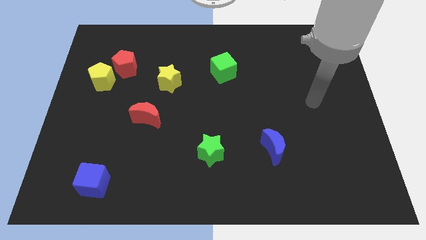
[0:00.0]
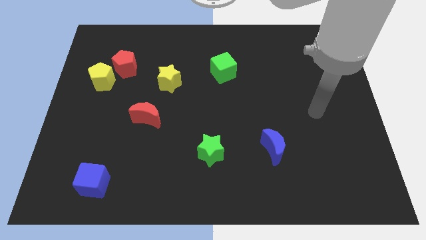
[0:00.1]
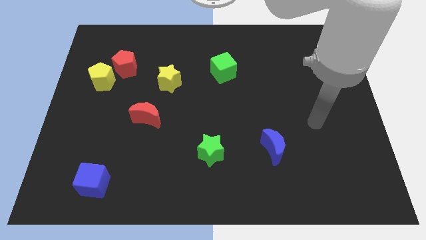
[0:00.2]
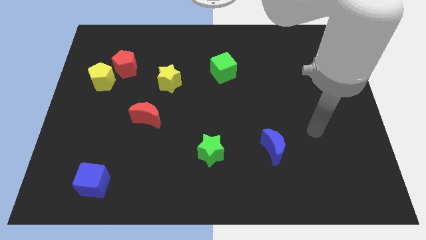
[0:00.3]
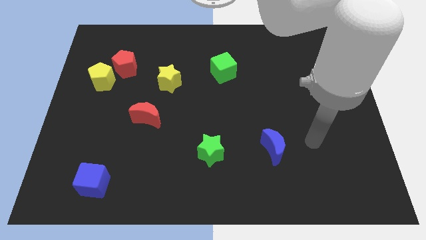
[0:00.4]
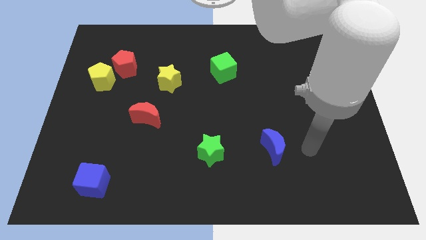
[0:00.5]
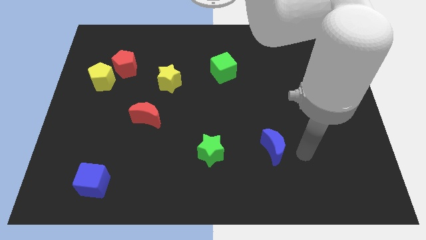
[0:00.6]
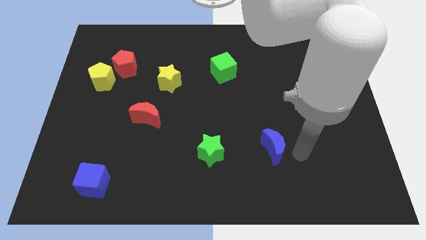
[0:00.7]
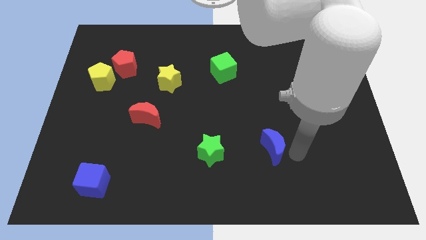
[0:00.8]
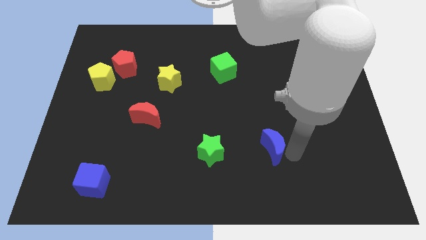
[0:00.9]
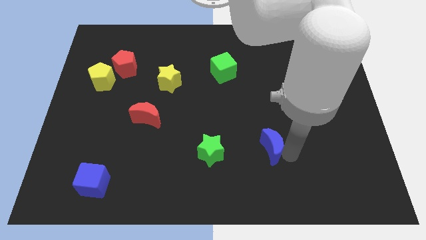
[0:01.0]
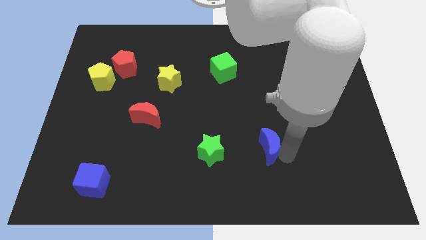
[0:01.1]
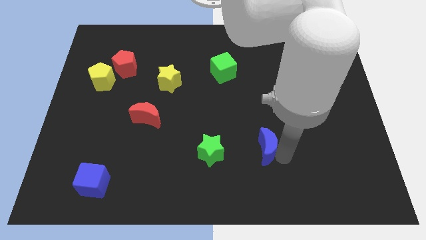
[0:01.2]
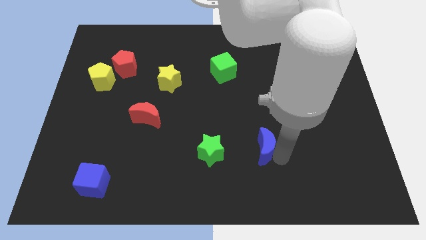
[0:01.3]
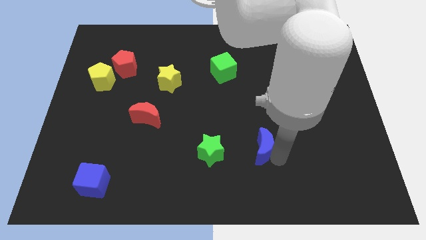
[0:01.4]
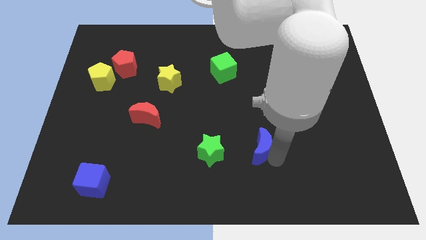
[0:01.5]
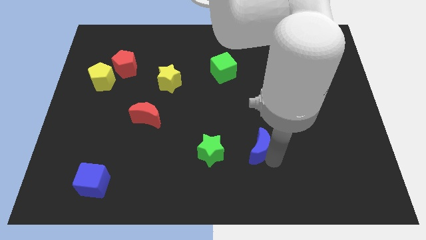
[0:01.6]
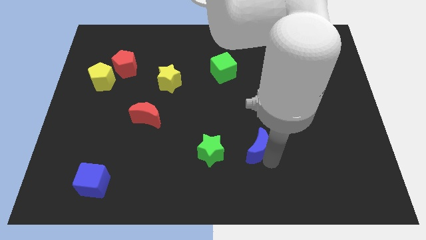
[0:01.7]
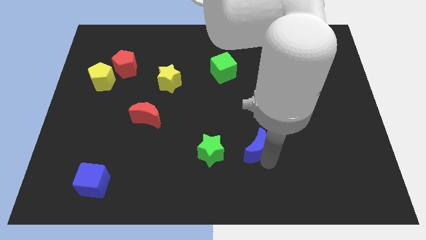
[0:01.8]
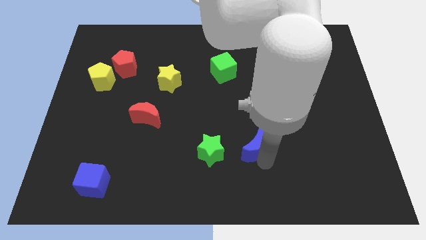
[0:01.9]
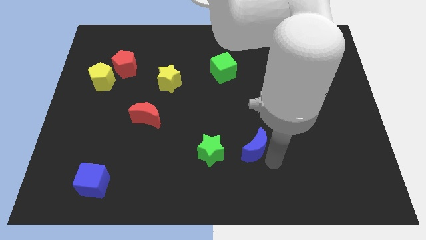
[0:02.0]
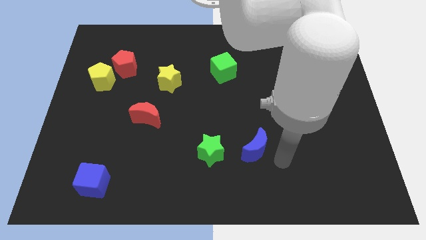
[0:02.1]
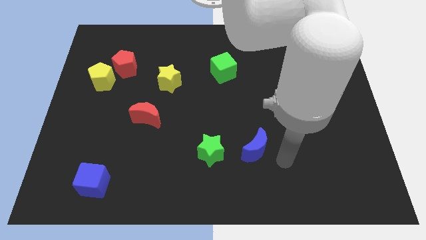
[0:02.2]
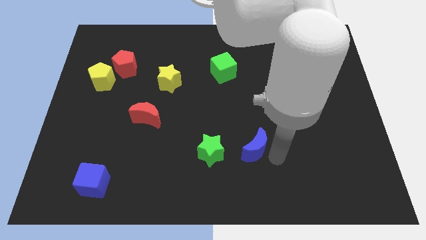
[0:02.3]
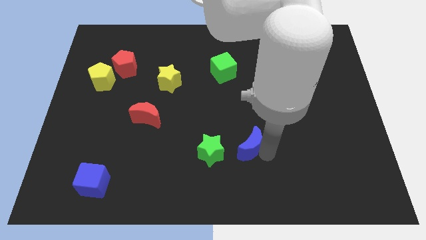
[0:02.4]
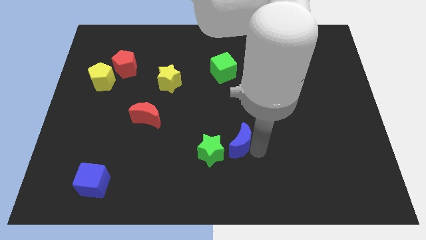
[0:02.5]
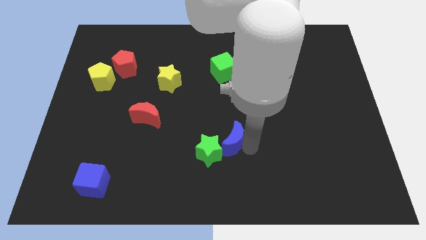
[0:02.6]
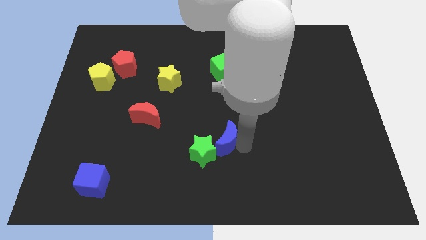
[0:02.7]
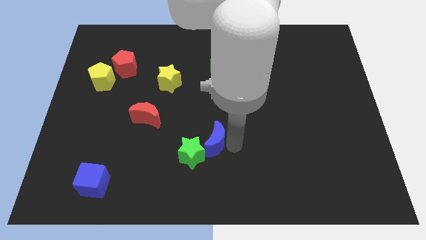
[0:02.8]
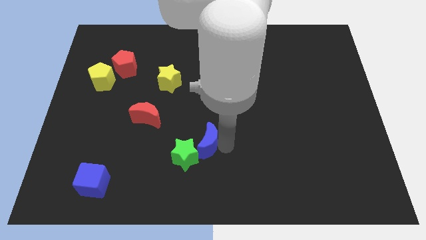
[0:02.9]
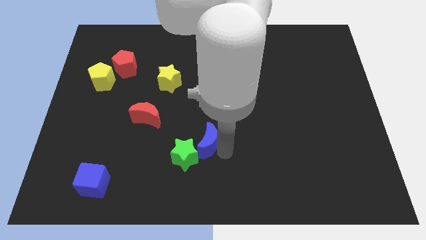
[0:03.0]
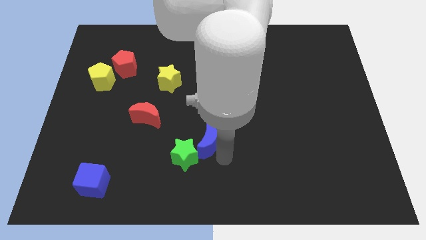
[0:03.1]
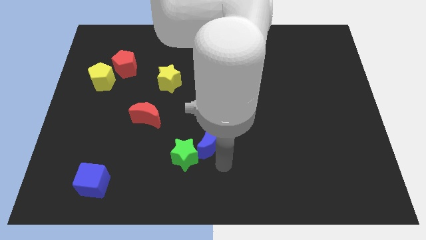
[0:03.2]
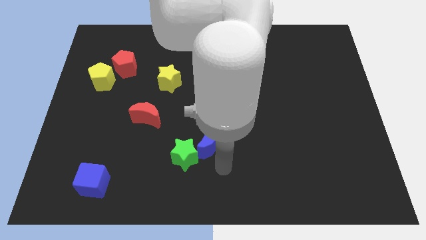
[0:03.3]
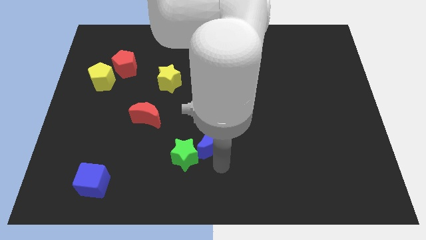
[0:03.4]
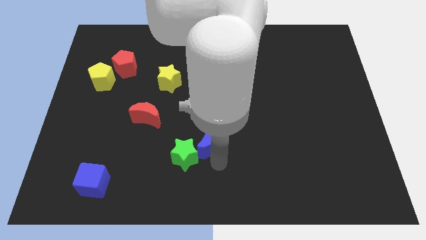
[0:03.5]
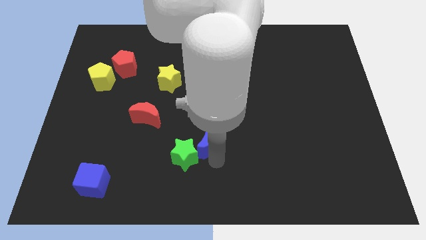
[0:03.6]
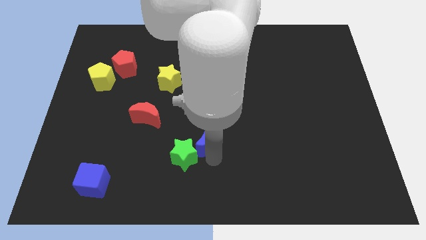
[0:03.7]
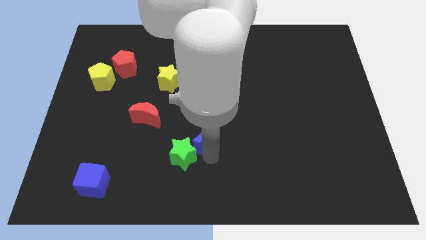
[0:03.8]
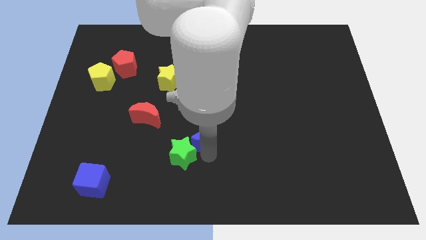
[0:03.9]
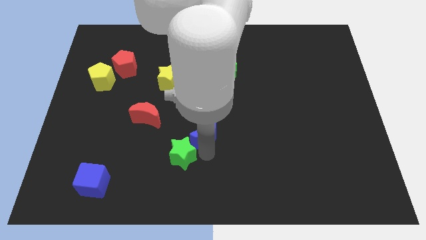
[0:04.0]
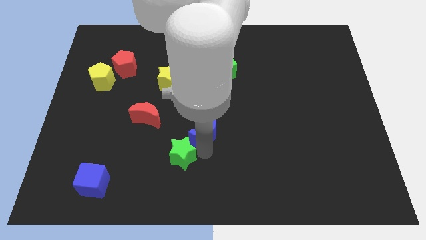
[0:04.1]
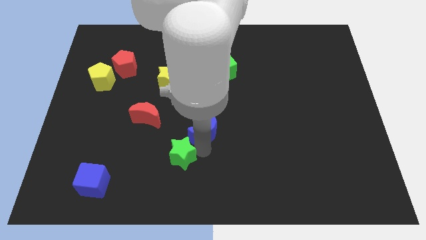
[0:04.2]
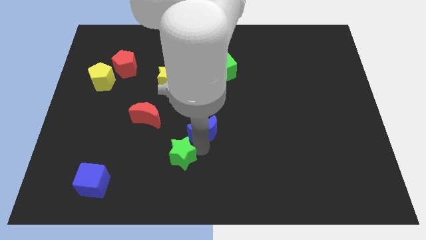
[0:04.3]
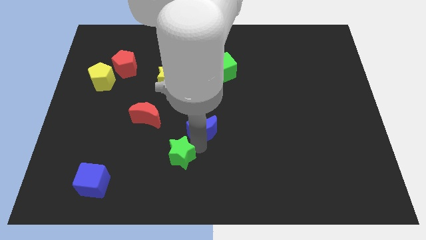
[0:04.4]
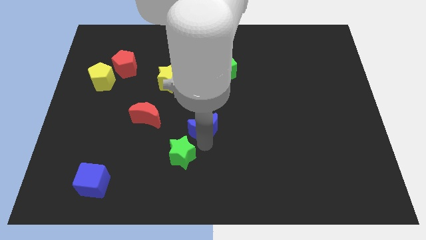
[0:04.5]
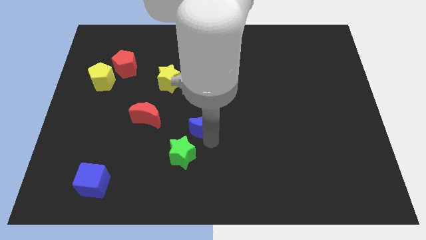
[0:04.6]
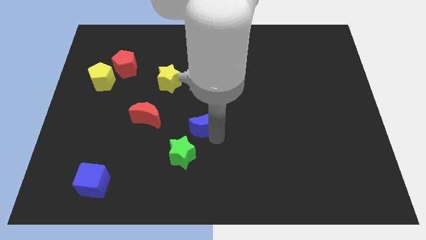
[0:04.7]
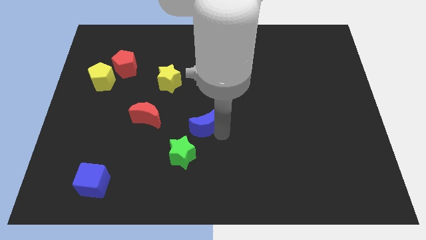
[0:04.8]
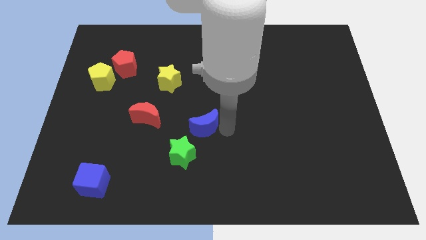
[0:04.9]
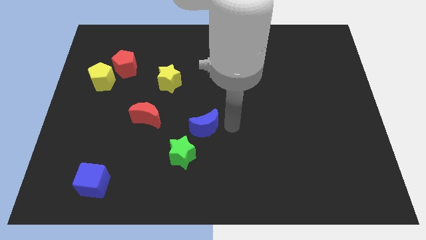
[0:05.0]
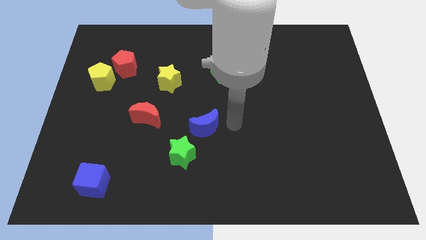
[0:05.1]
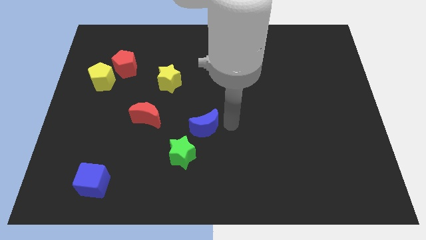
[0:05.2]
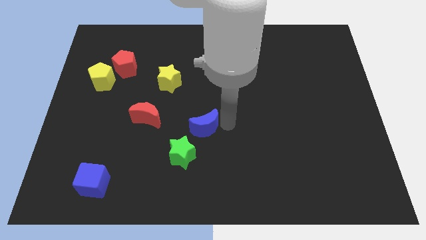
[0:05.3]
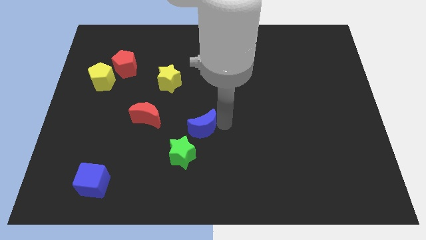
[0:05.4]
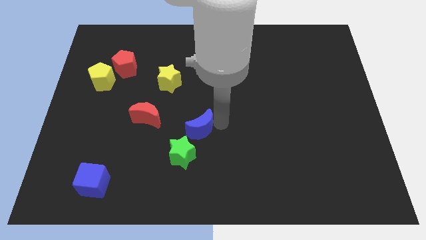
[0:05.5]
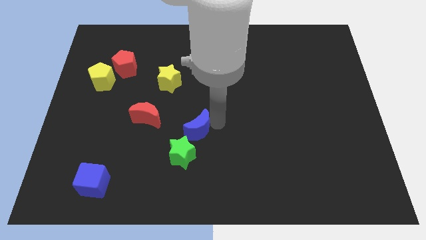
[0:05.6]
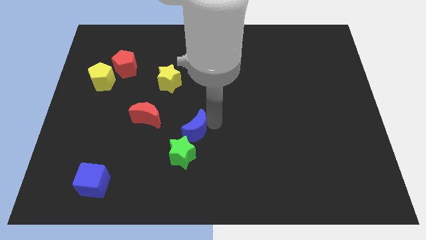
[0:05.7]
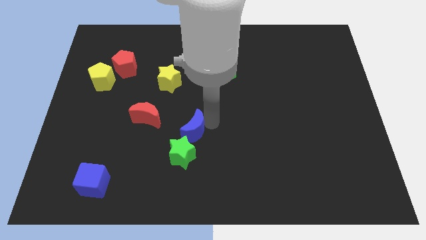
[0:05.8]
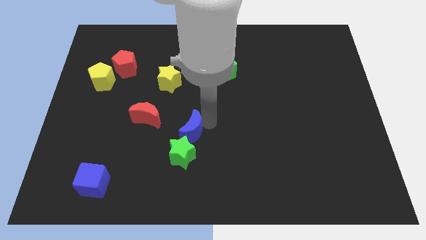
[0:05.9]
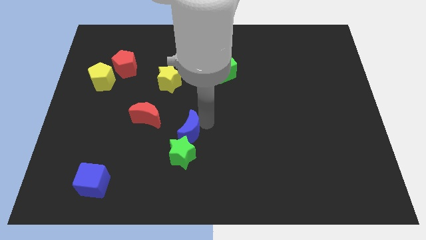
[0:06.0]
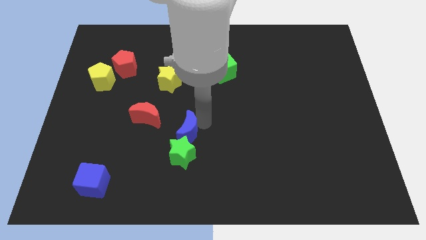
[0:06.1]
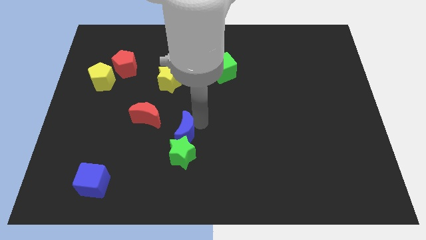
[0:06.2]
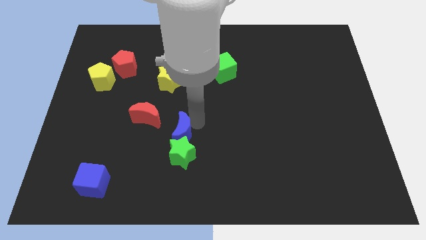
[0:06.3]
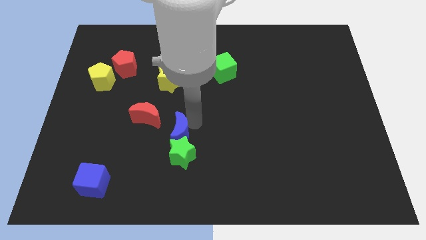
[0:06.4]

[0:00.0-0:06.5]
slide the blue moon left

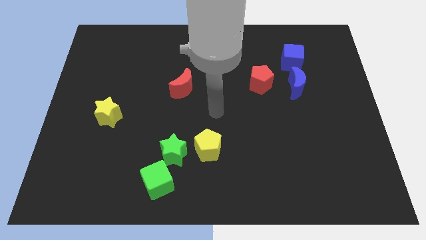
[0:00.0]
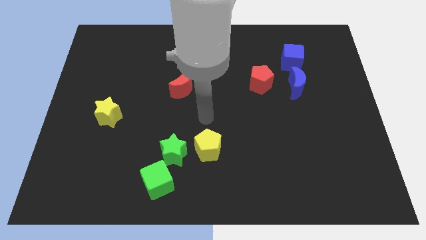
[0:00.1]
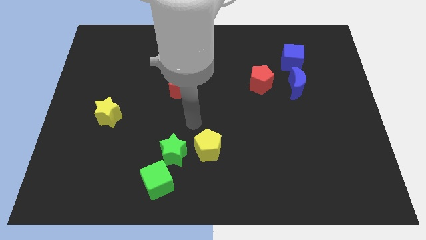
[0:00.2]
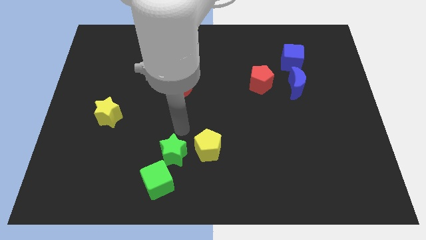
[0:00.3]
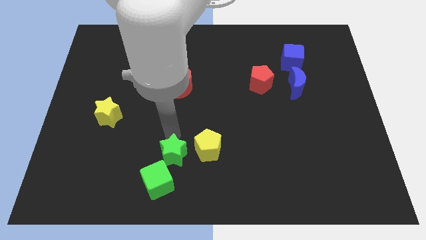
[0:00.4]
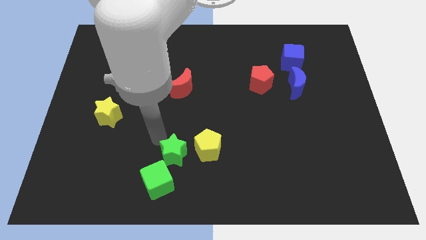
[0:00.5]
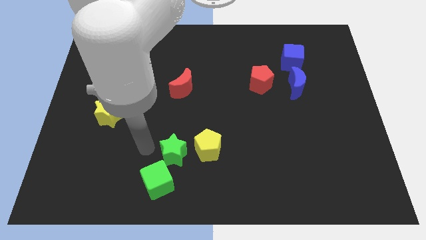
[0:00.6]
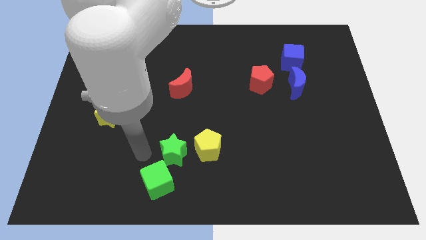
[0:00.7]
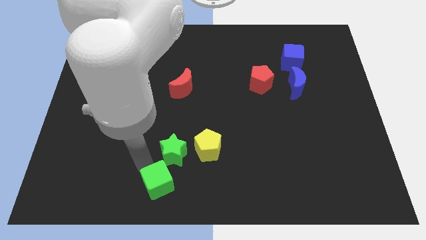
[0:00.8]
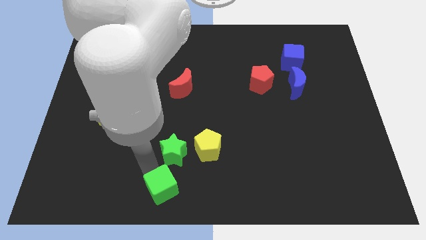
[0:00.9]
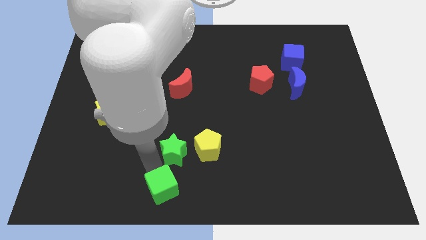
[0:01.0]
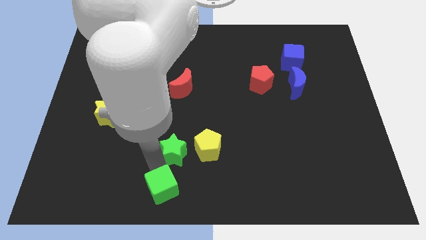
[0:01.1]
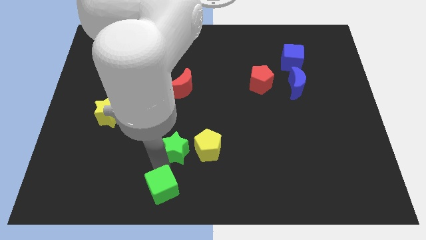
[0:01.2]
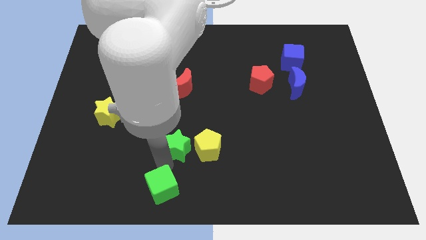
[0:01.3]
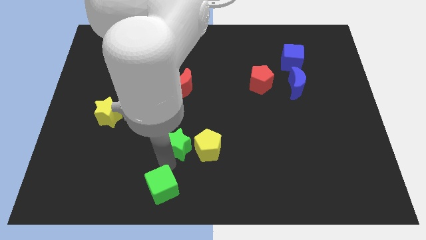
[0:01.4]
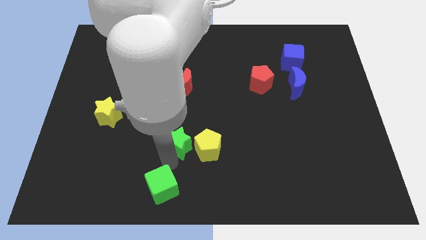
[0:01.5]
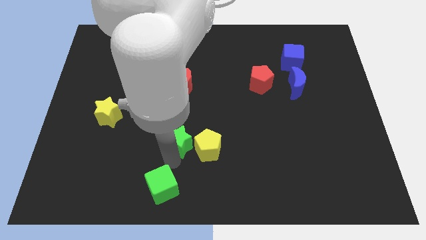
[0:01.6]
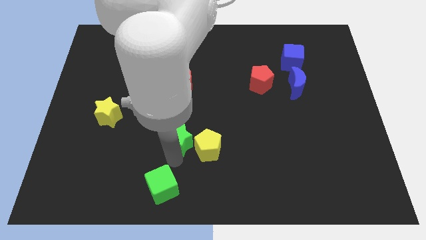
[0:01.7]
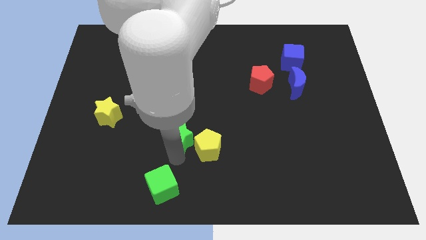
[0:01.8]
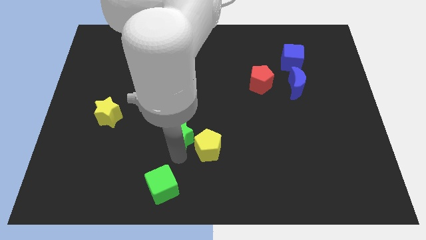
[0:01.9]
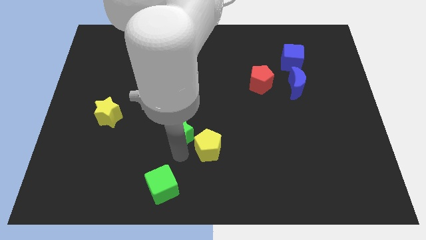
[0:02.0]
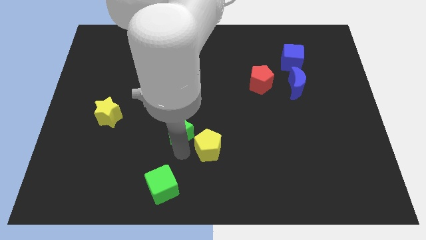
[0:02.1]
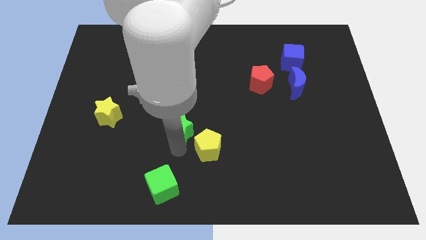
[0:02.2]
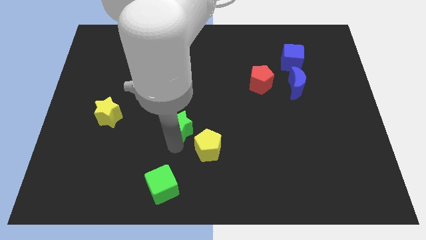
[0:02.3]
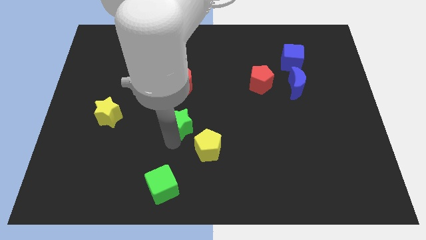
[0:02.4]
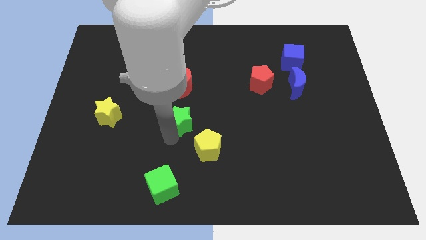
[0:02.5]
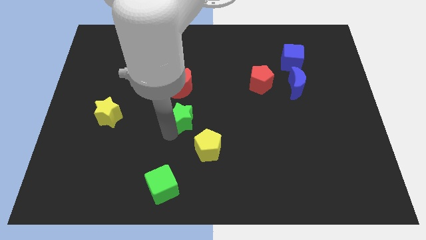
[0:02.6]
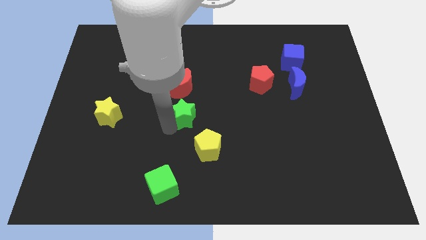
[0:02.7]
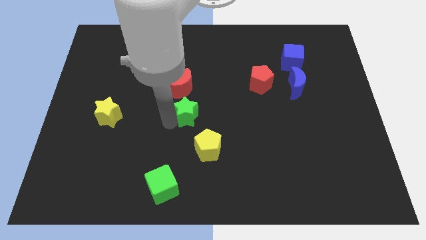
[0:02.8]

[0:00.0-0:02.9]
push the green star a bit up and to the right diagonally
